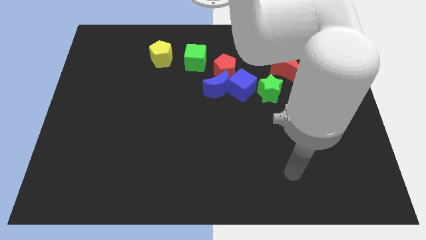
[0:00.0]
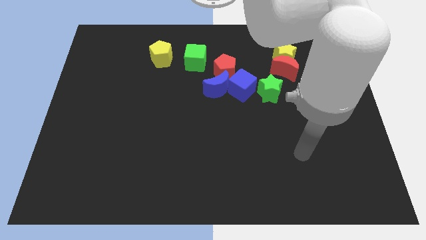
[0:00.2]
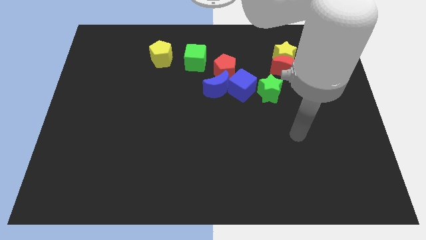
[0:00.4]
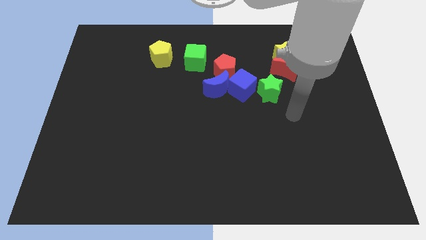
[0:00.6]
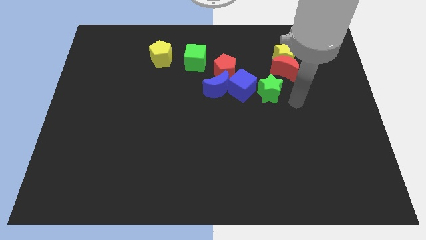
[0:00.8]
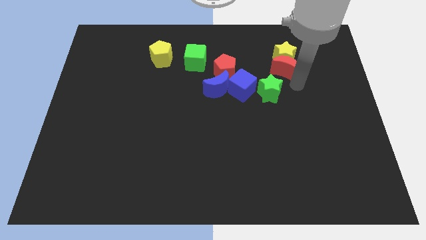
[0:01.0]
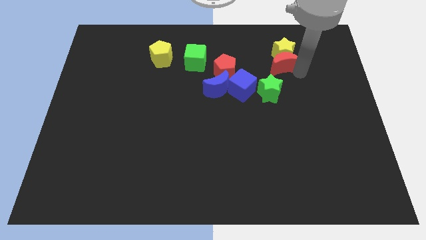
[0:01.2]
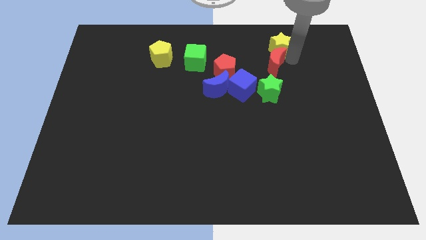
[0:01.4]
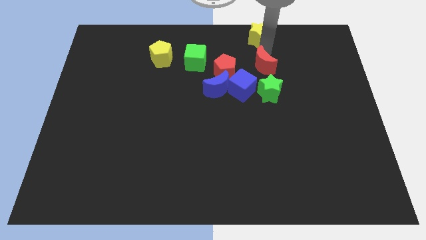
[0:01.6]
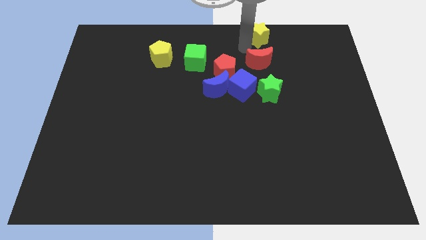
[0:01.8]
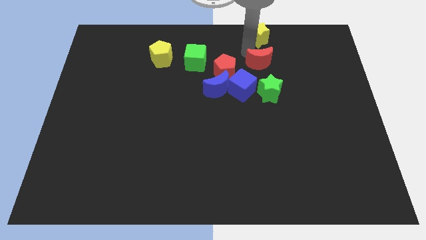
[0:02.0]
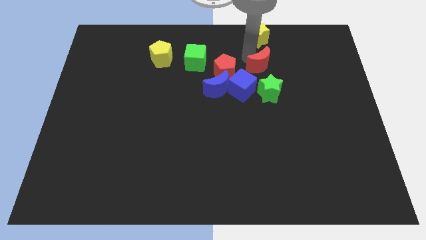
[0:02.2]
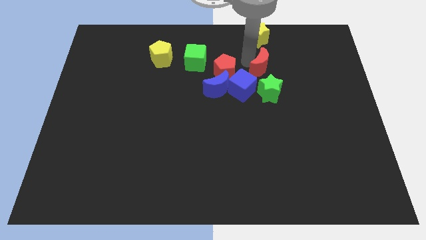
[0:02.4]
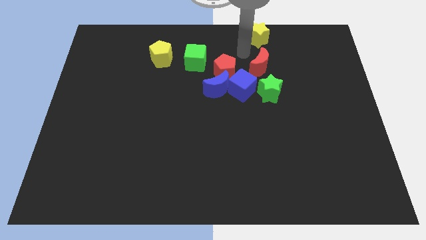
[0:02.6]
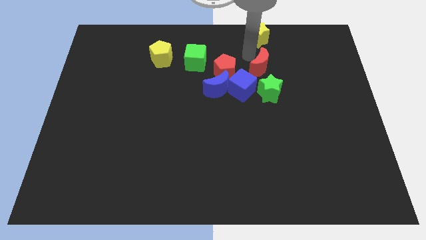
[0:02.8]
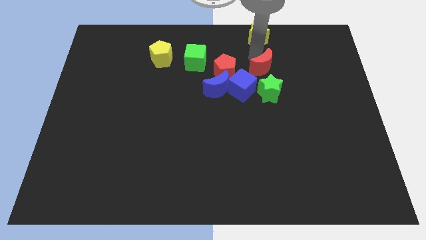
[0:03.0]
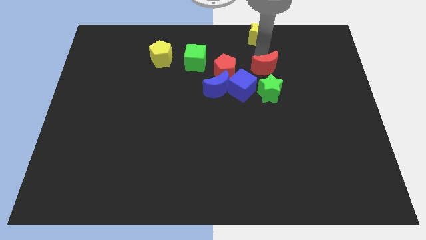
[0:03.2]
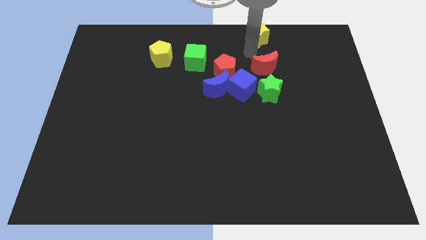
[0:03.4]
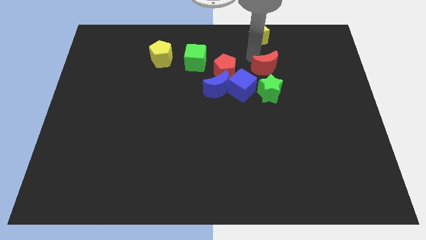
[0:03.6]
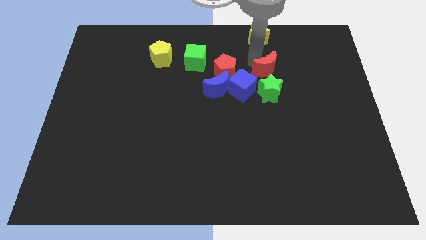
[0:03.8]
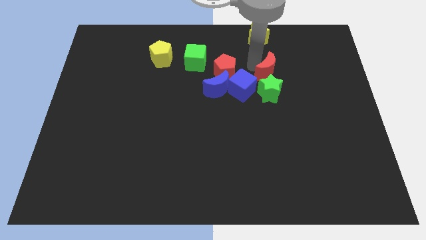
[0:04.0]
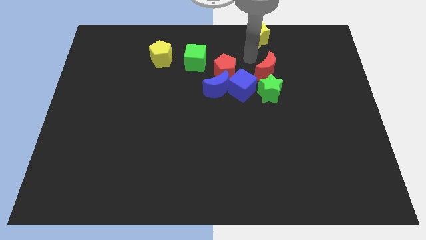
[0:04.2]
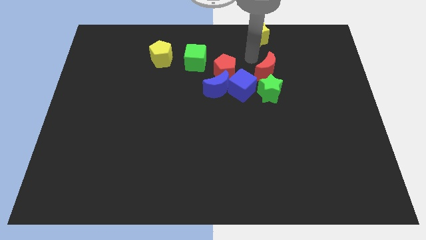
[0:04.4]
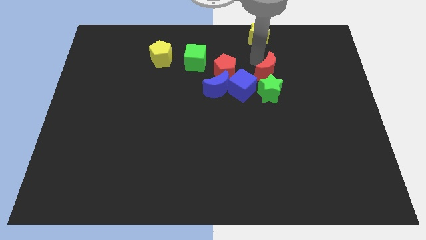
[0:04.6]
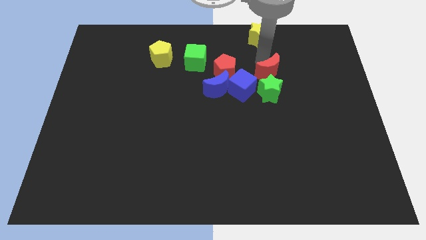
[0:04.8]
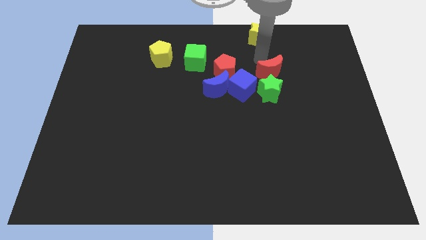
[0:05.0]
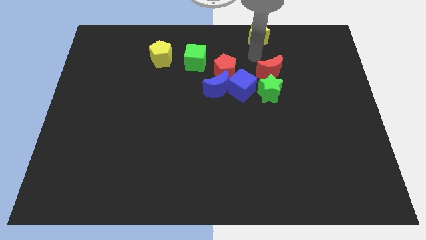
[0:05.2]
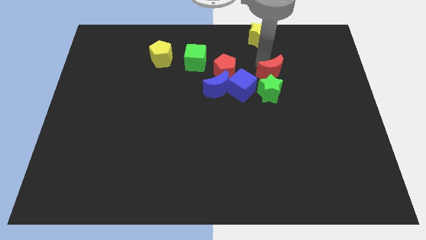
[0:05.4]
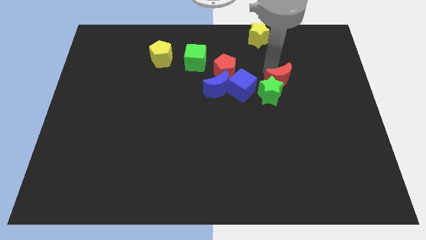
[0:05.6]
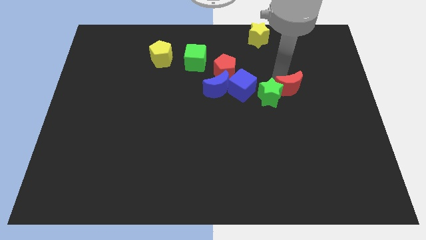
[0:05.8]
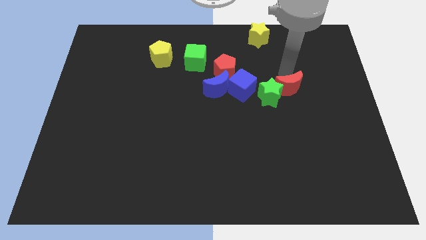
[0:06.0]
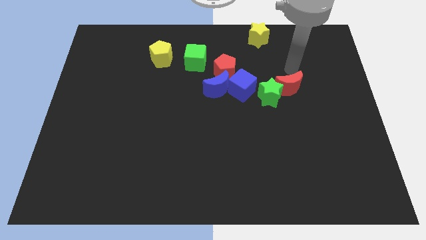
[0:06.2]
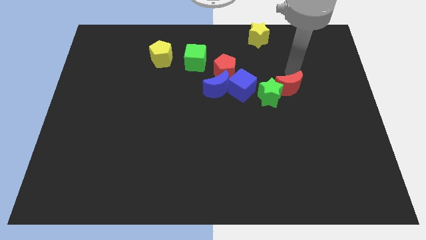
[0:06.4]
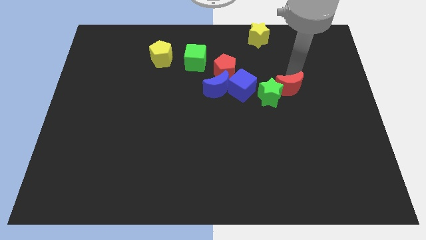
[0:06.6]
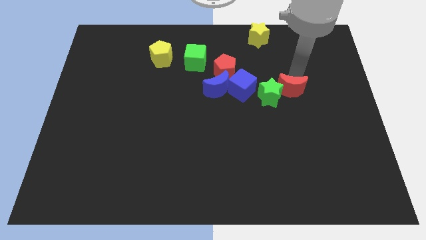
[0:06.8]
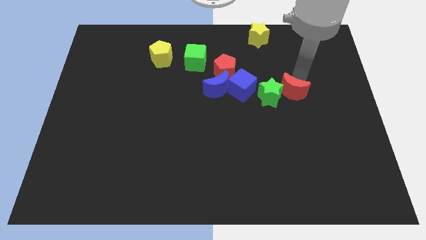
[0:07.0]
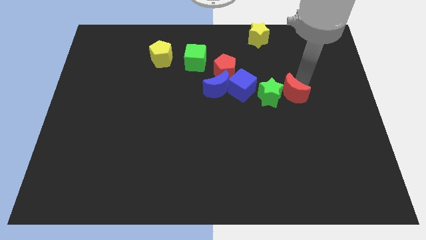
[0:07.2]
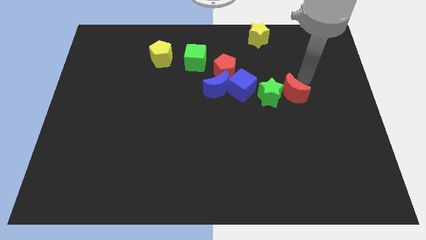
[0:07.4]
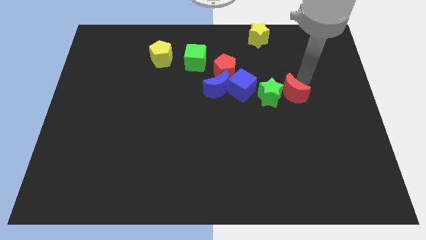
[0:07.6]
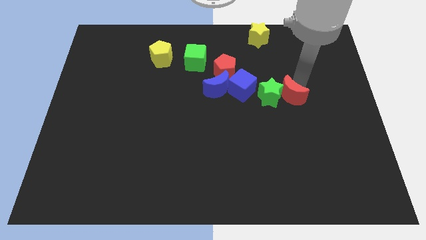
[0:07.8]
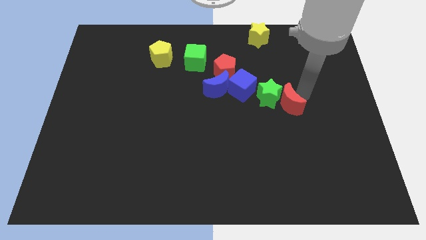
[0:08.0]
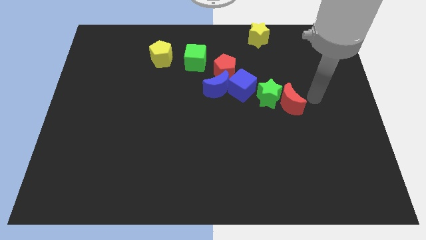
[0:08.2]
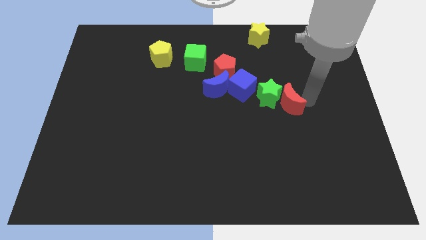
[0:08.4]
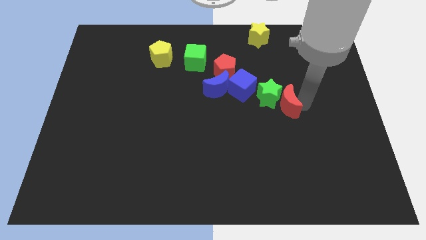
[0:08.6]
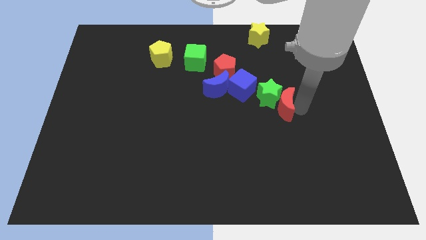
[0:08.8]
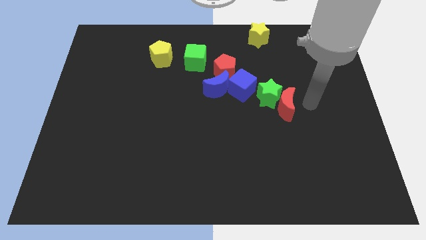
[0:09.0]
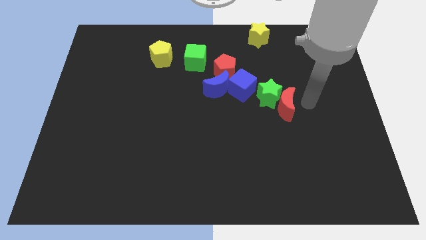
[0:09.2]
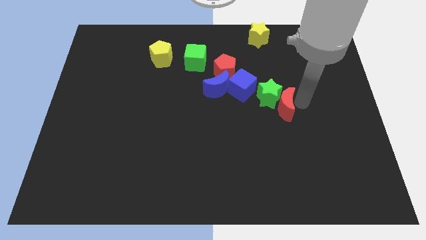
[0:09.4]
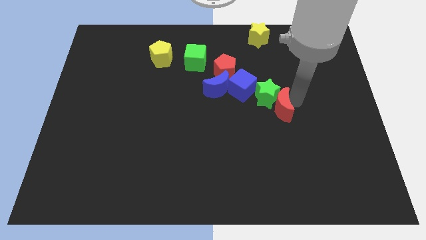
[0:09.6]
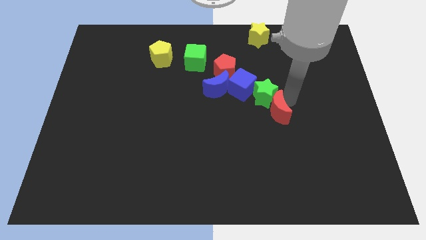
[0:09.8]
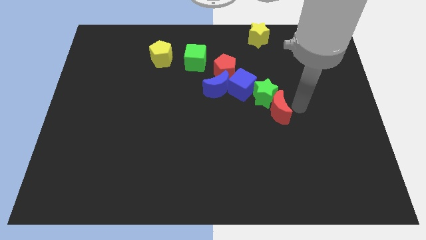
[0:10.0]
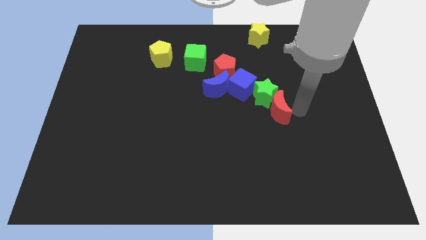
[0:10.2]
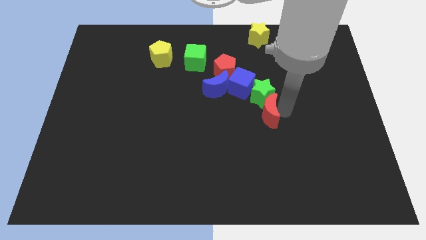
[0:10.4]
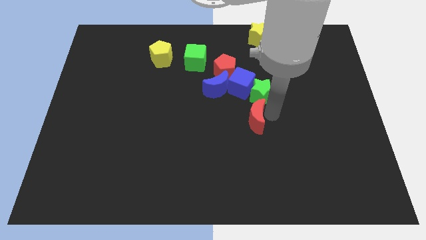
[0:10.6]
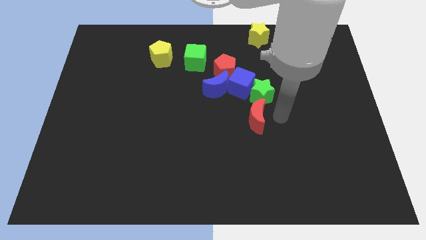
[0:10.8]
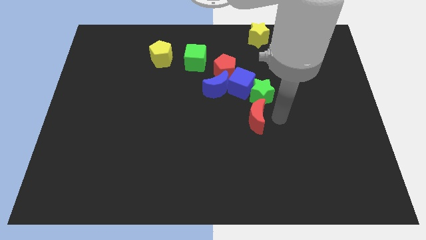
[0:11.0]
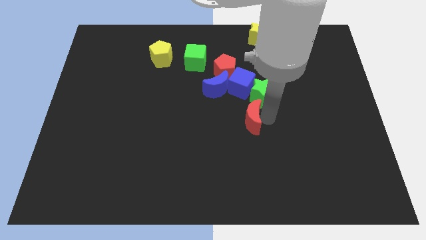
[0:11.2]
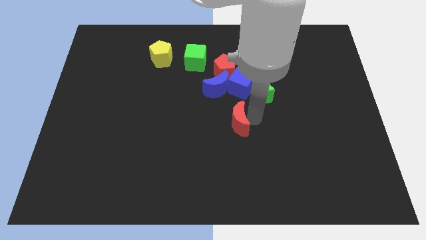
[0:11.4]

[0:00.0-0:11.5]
move the red moon diagonally down and to the left

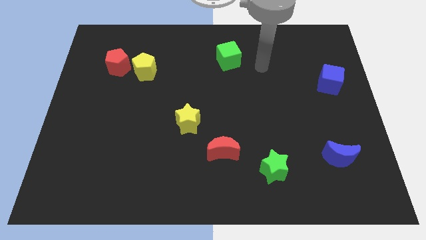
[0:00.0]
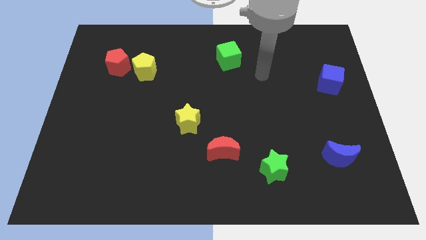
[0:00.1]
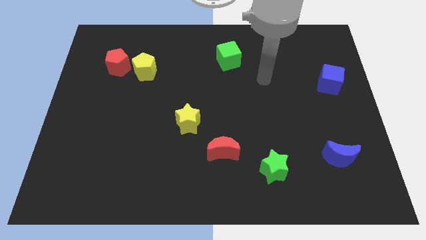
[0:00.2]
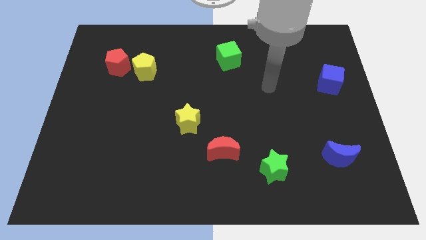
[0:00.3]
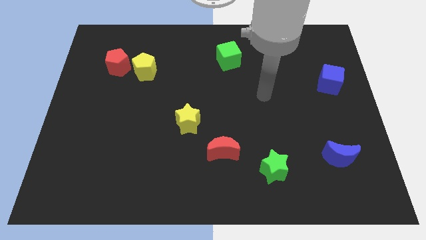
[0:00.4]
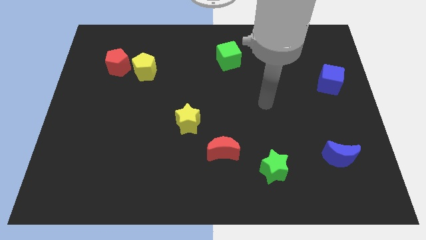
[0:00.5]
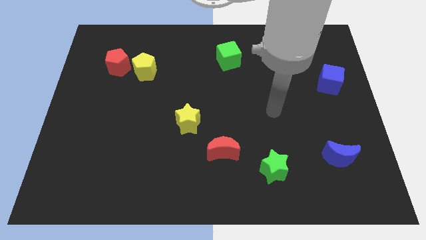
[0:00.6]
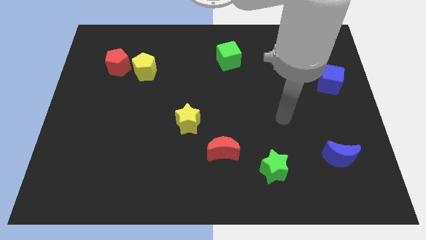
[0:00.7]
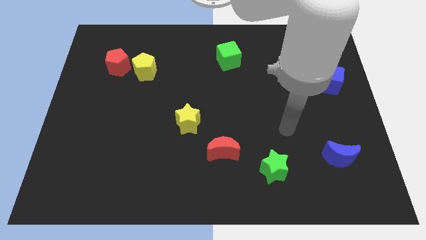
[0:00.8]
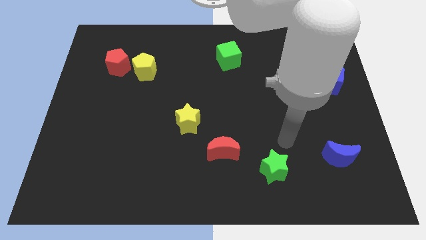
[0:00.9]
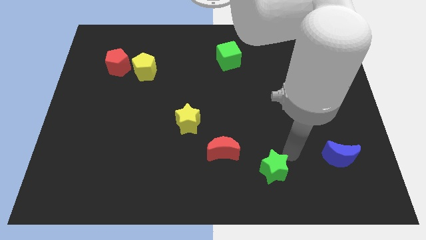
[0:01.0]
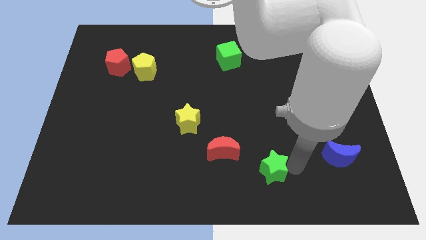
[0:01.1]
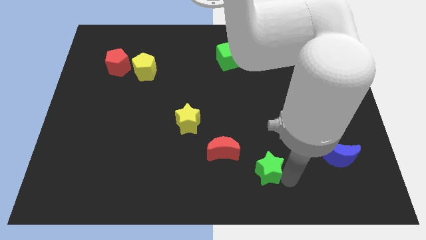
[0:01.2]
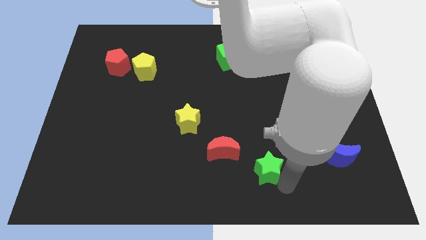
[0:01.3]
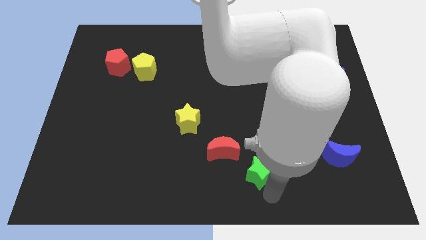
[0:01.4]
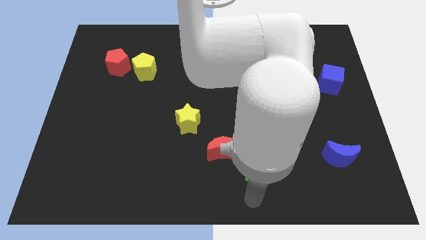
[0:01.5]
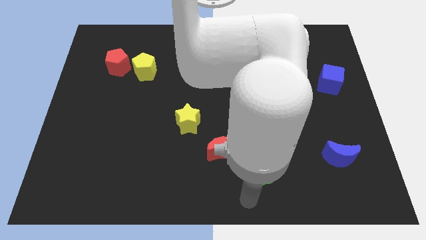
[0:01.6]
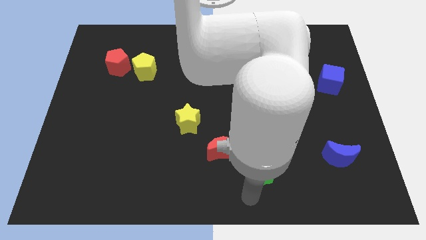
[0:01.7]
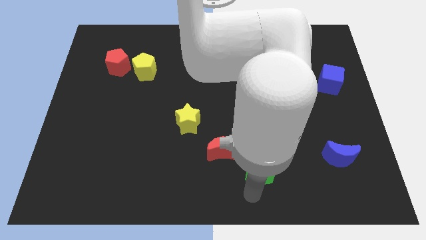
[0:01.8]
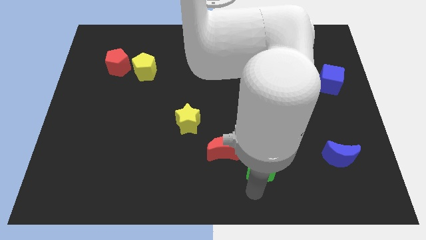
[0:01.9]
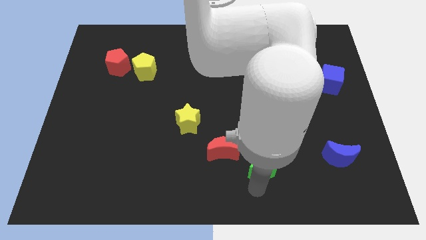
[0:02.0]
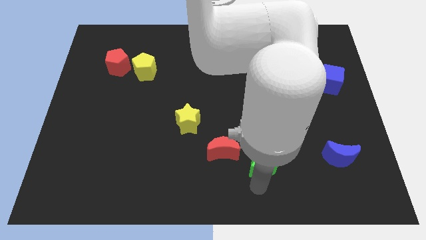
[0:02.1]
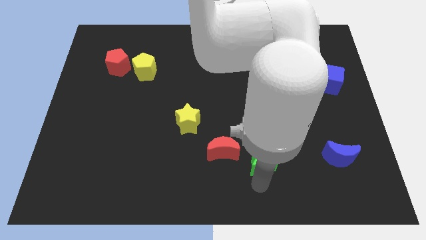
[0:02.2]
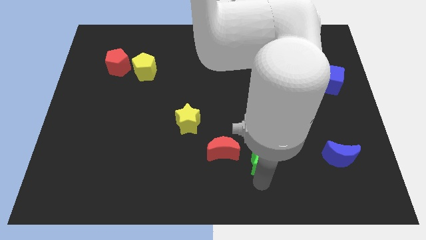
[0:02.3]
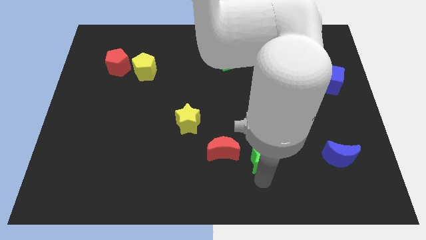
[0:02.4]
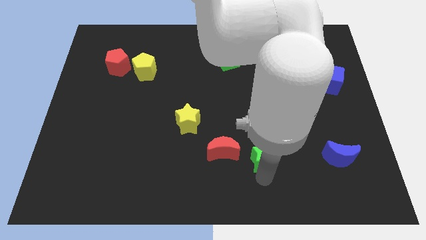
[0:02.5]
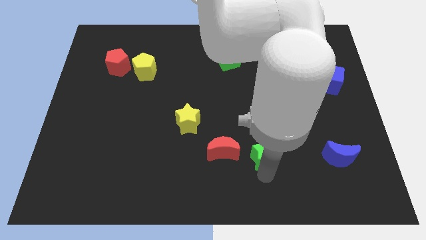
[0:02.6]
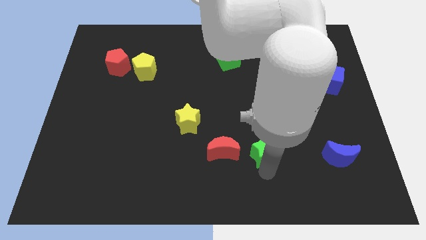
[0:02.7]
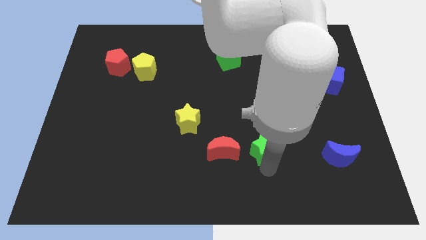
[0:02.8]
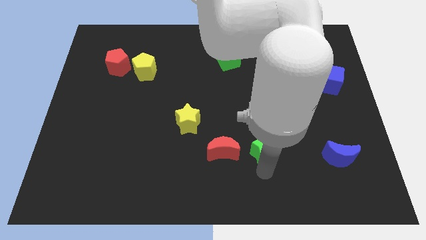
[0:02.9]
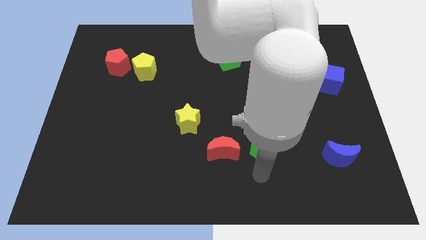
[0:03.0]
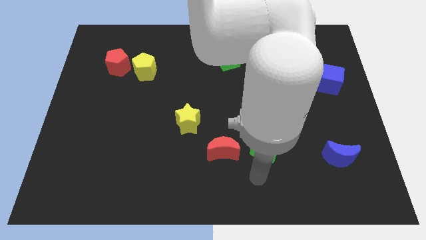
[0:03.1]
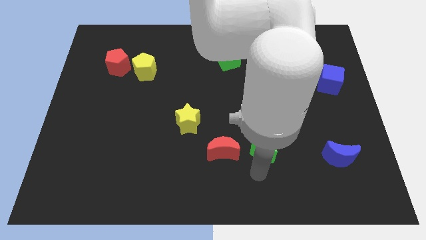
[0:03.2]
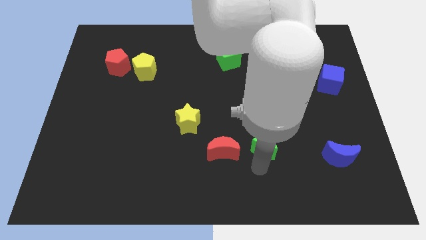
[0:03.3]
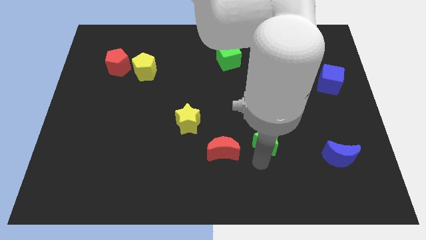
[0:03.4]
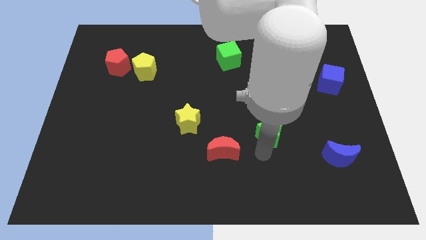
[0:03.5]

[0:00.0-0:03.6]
move the green star up a little bit
